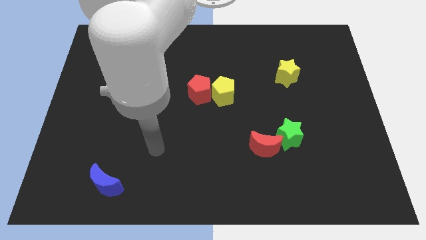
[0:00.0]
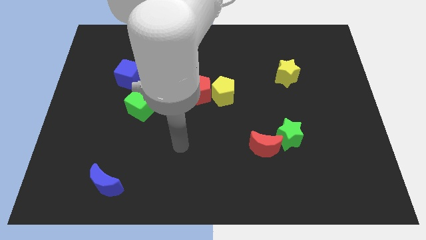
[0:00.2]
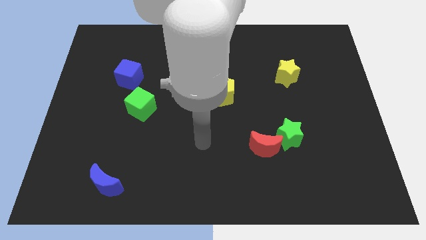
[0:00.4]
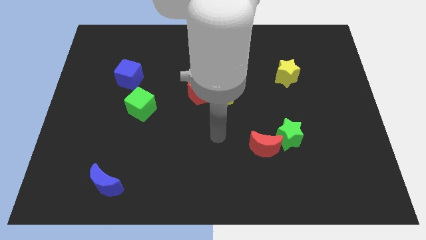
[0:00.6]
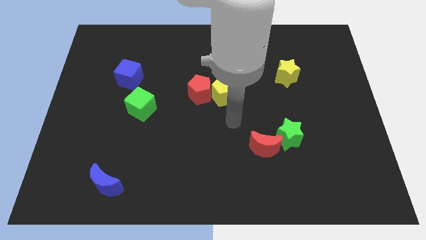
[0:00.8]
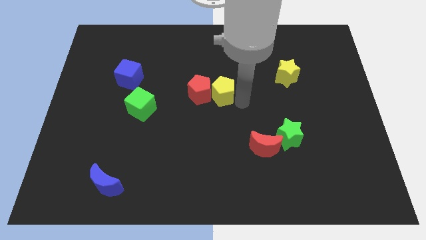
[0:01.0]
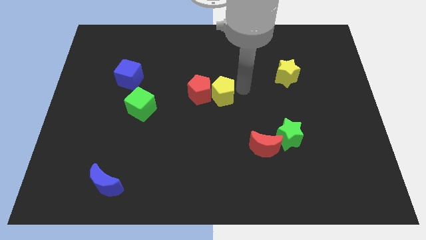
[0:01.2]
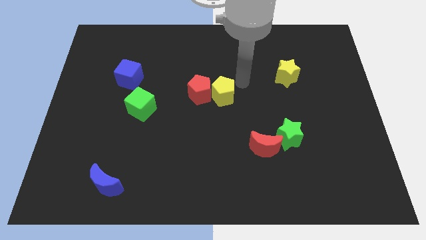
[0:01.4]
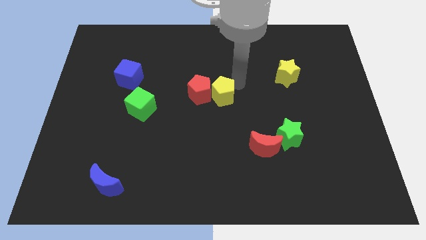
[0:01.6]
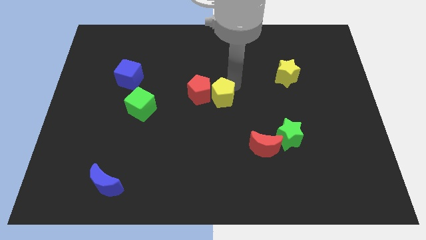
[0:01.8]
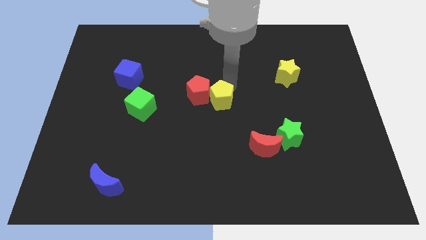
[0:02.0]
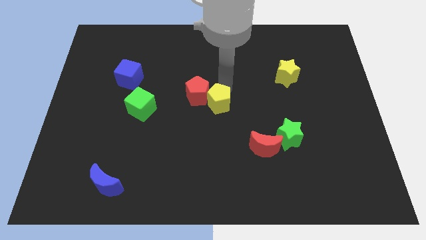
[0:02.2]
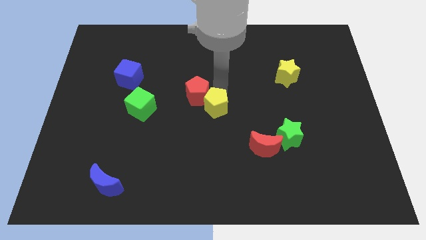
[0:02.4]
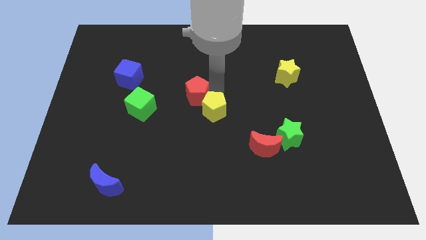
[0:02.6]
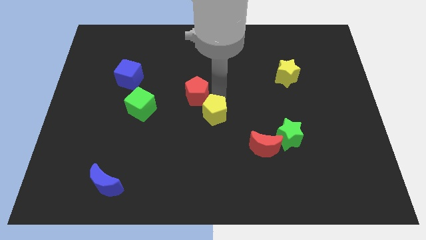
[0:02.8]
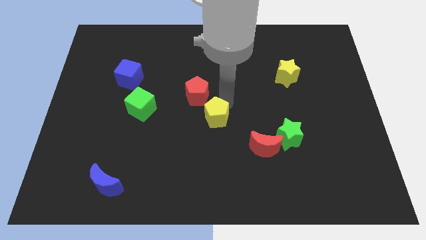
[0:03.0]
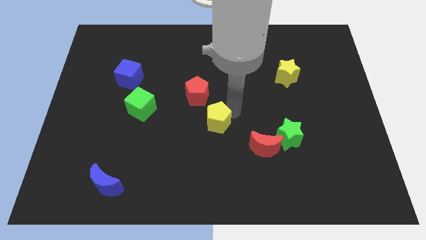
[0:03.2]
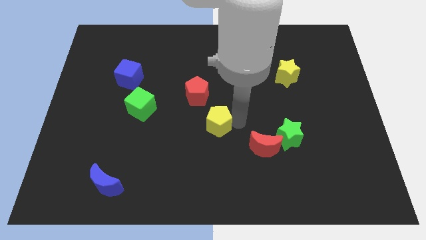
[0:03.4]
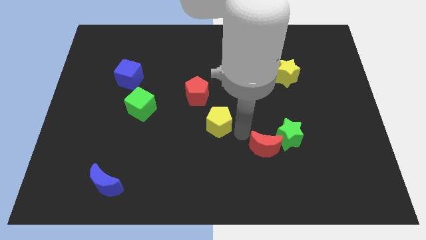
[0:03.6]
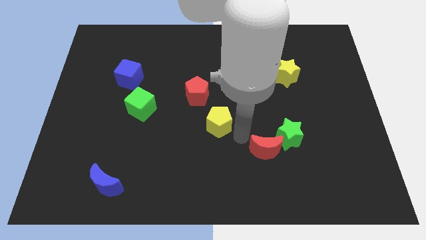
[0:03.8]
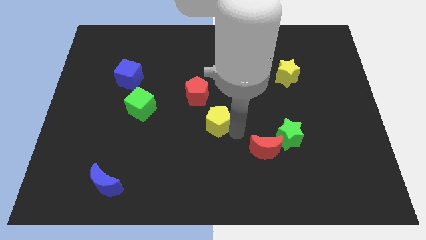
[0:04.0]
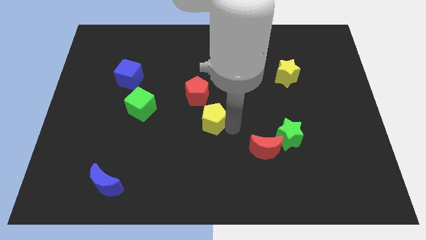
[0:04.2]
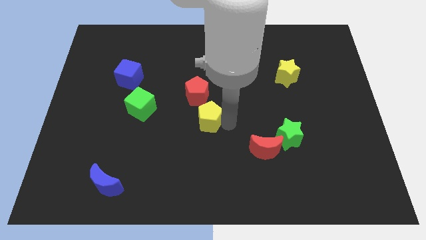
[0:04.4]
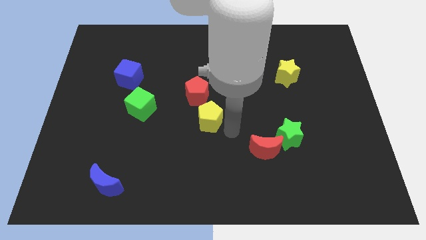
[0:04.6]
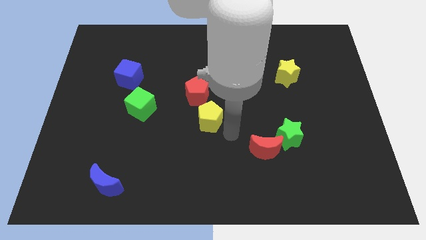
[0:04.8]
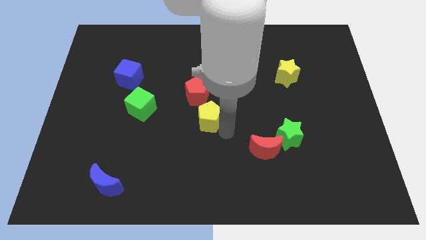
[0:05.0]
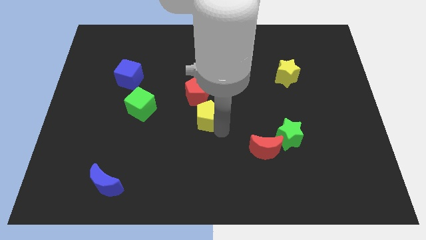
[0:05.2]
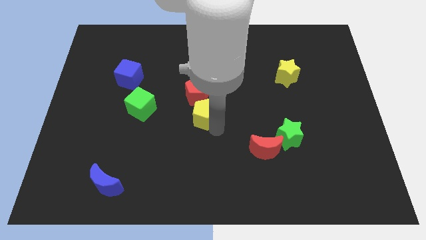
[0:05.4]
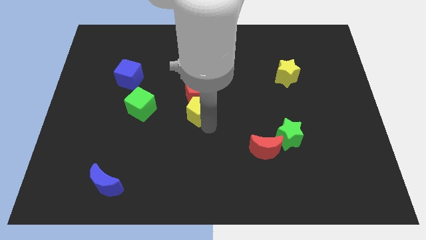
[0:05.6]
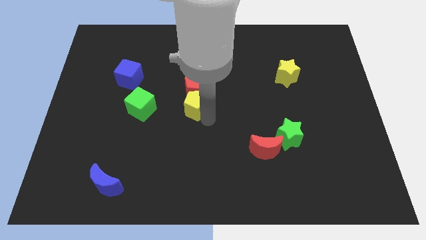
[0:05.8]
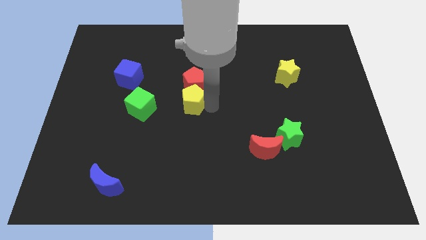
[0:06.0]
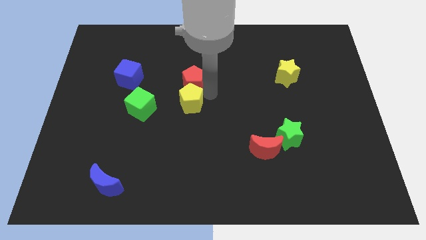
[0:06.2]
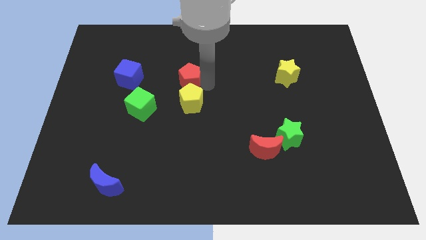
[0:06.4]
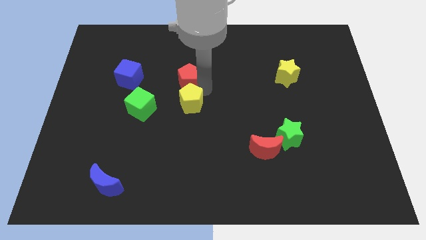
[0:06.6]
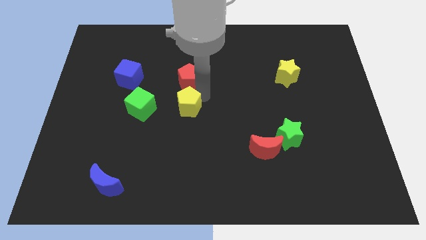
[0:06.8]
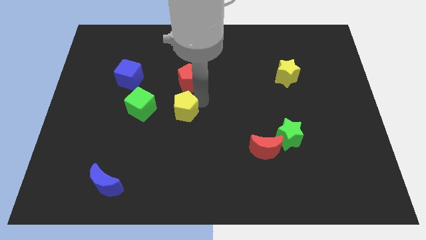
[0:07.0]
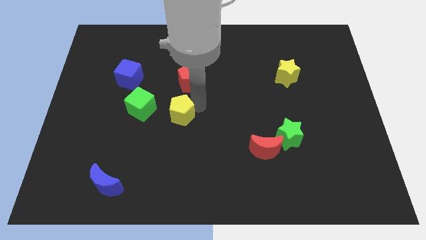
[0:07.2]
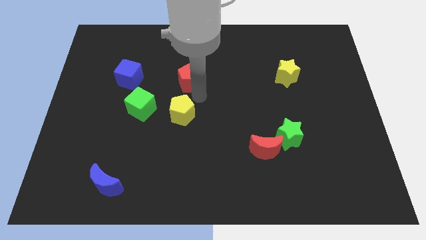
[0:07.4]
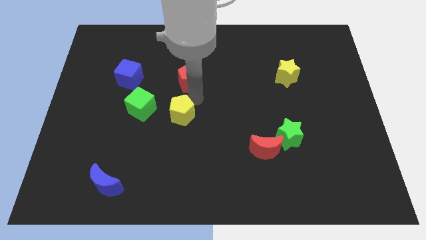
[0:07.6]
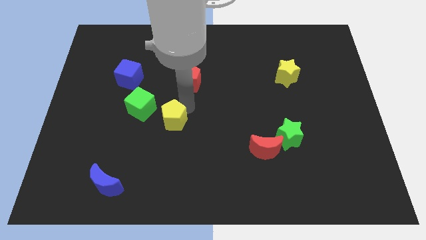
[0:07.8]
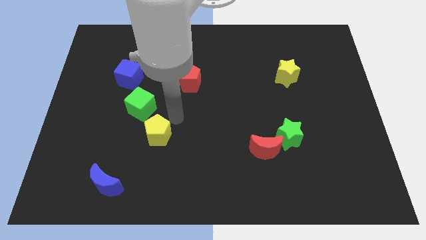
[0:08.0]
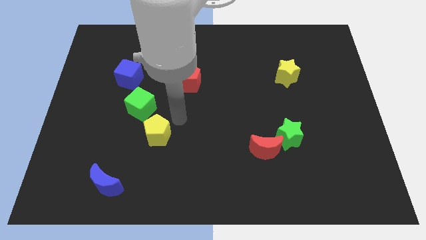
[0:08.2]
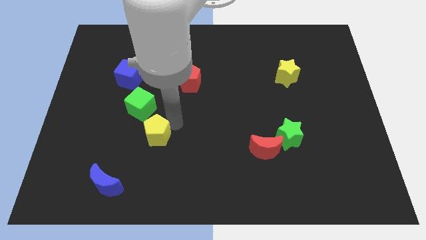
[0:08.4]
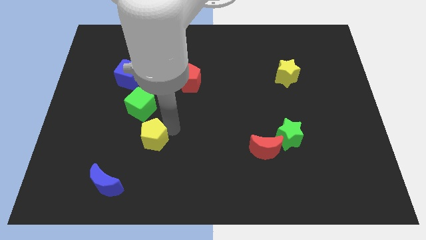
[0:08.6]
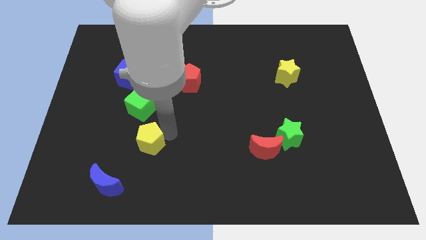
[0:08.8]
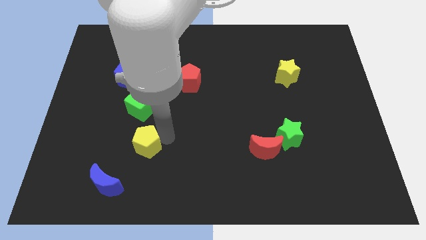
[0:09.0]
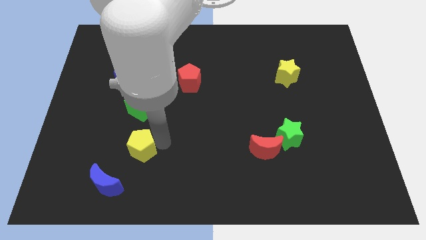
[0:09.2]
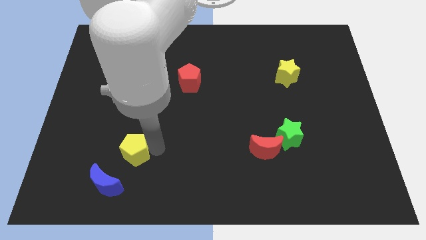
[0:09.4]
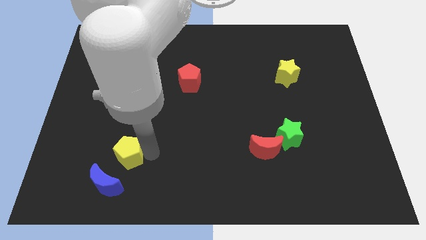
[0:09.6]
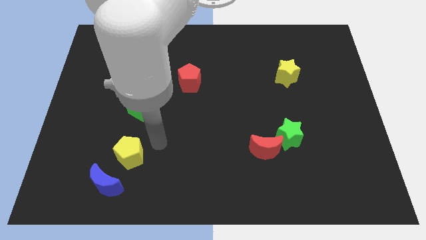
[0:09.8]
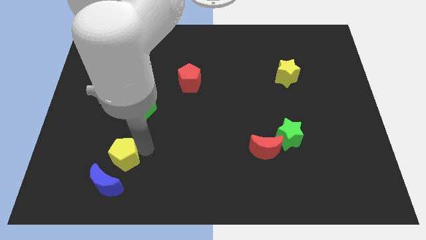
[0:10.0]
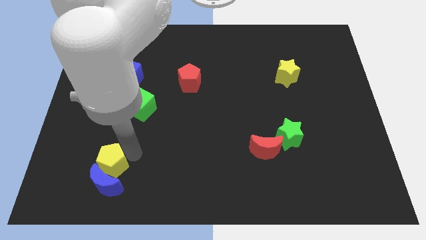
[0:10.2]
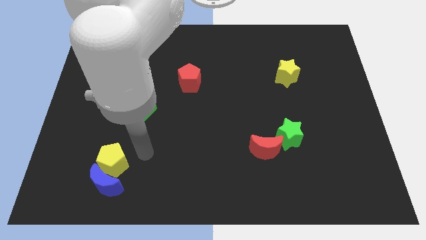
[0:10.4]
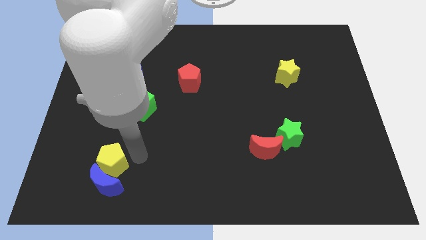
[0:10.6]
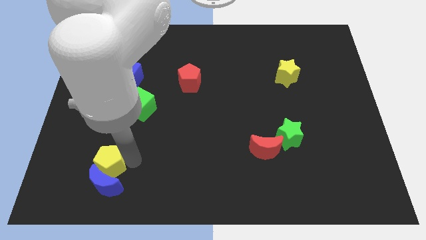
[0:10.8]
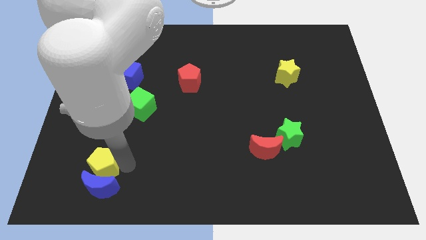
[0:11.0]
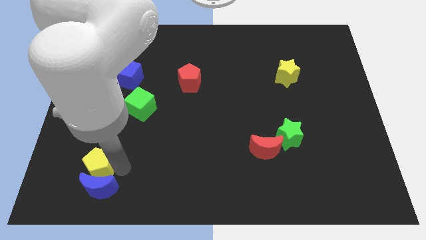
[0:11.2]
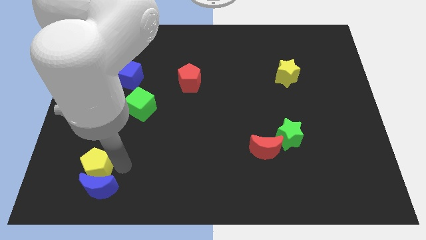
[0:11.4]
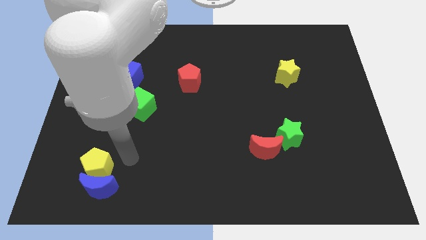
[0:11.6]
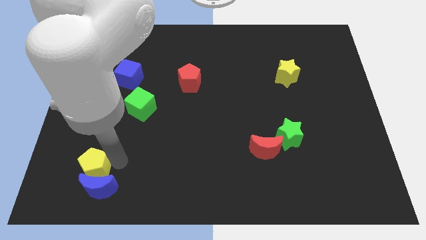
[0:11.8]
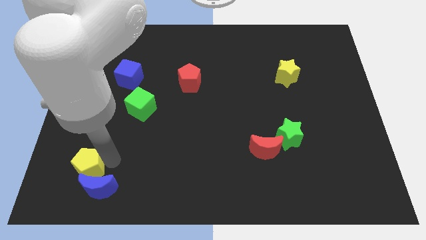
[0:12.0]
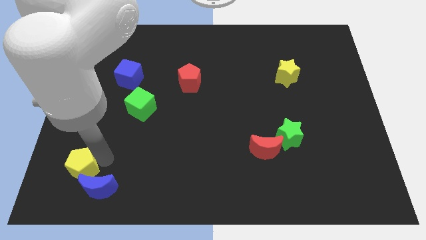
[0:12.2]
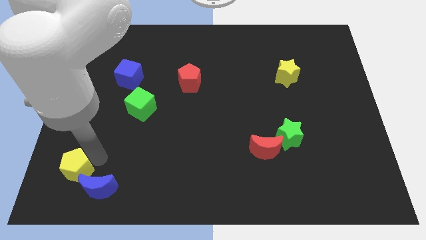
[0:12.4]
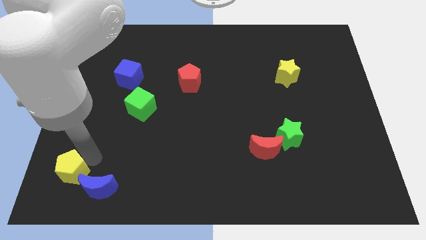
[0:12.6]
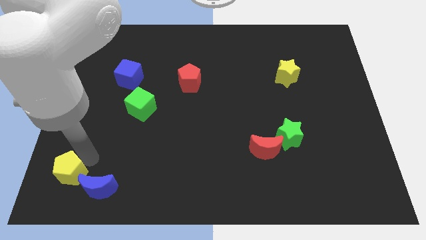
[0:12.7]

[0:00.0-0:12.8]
move the yellow pentagon to the bottom left corner
